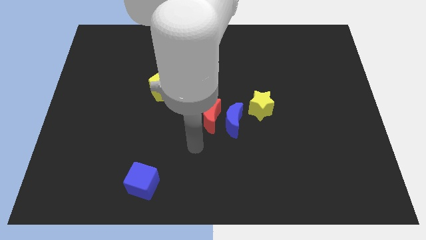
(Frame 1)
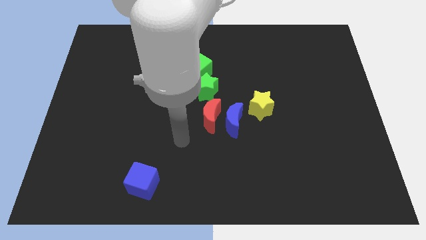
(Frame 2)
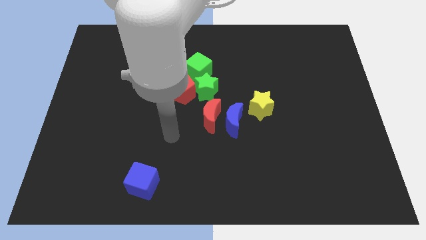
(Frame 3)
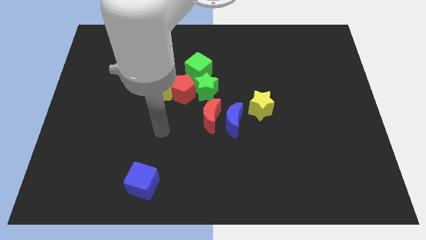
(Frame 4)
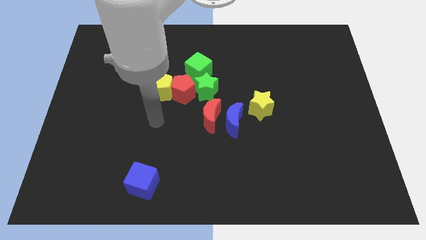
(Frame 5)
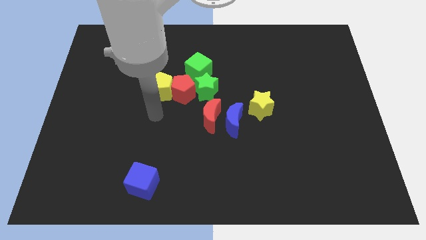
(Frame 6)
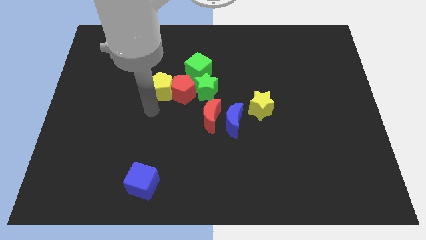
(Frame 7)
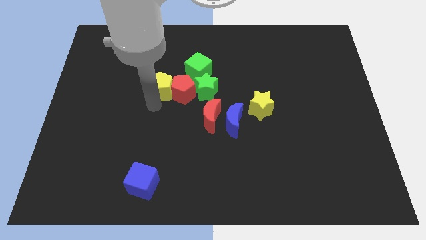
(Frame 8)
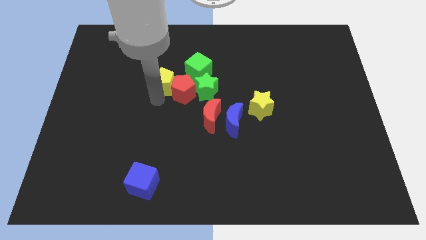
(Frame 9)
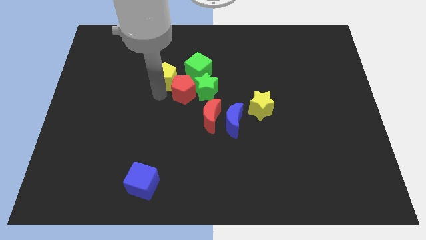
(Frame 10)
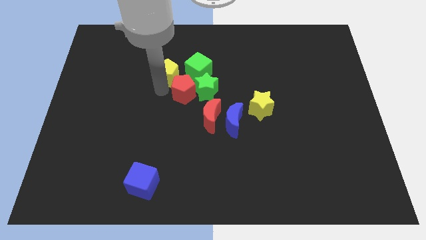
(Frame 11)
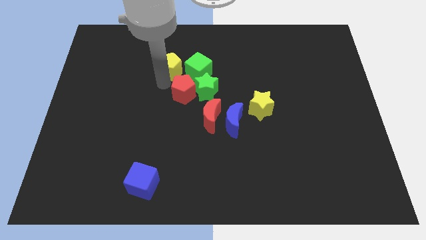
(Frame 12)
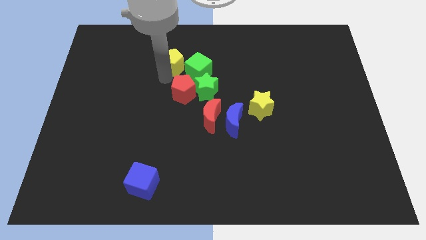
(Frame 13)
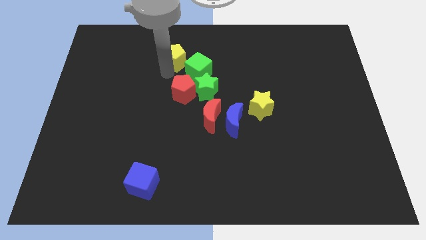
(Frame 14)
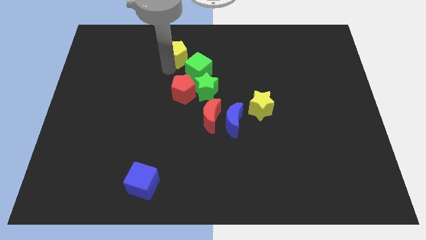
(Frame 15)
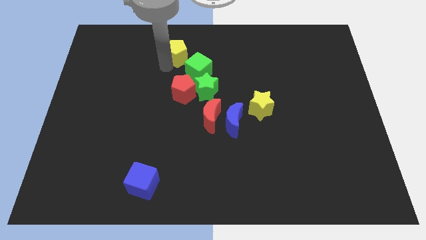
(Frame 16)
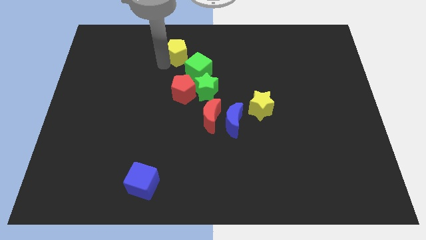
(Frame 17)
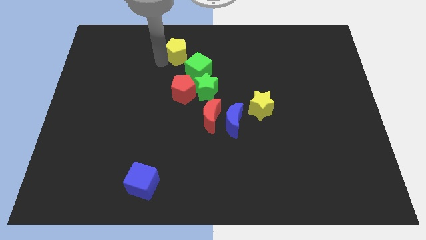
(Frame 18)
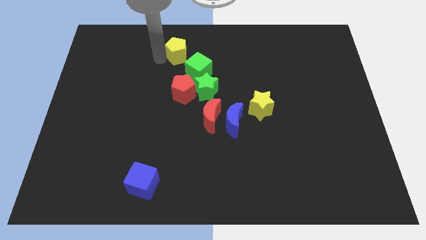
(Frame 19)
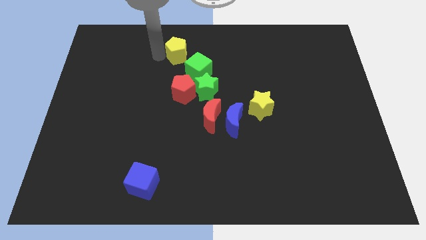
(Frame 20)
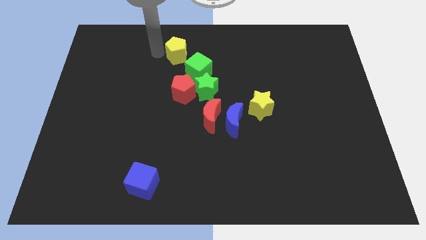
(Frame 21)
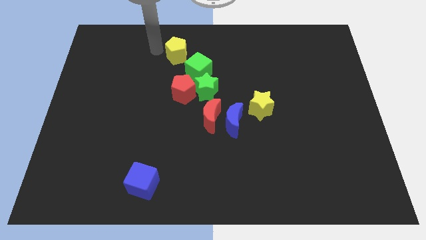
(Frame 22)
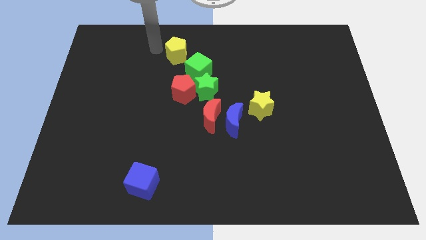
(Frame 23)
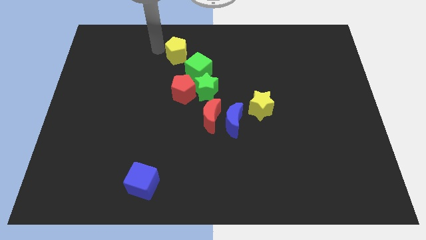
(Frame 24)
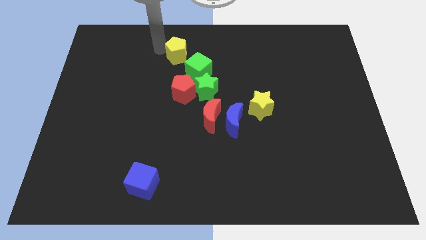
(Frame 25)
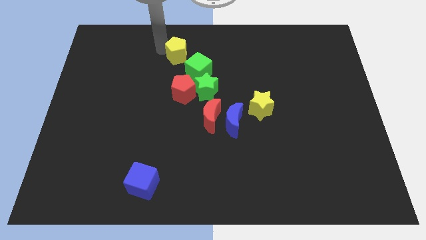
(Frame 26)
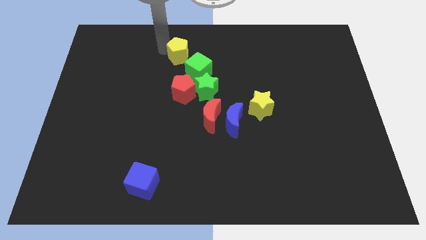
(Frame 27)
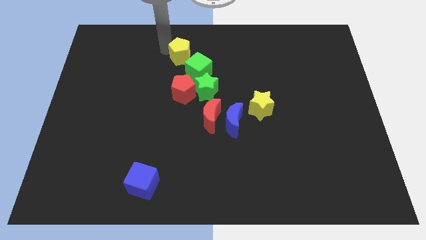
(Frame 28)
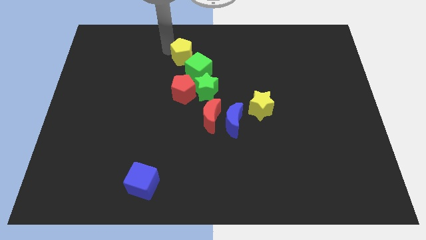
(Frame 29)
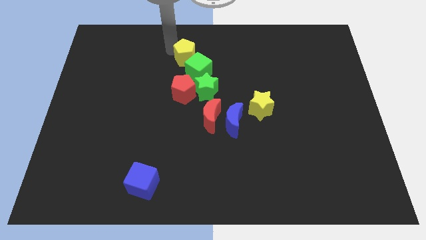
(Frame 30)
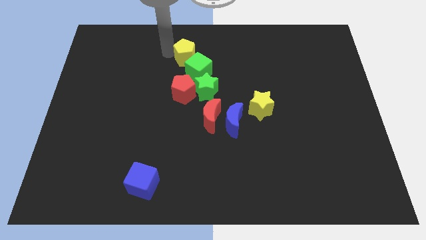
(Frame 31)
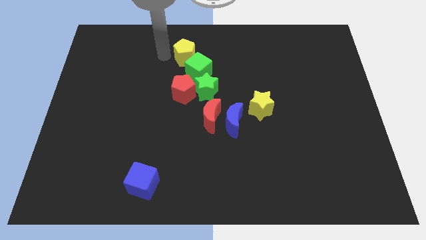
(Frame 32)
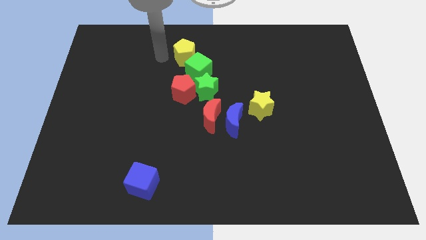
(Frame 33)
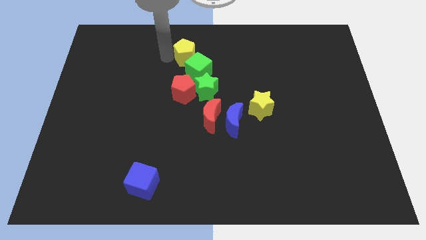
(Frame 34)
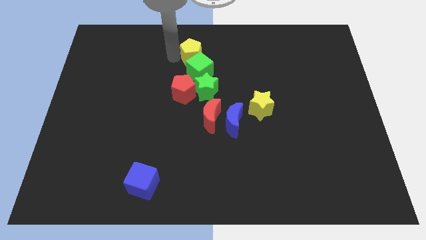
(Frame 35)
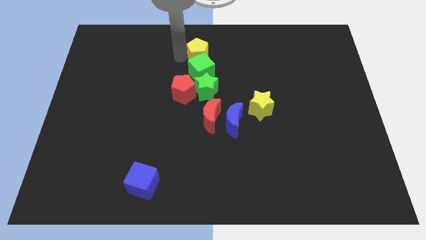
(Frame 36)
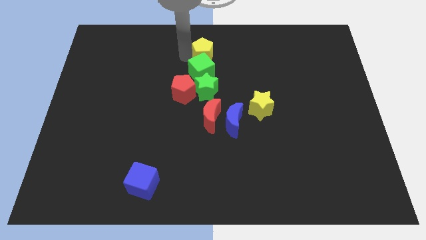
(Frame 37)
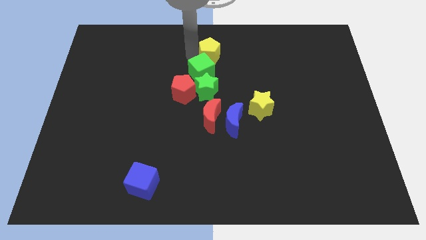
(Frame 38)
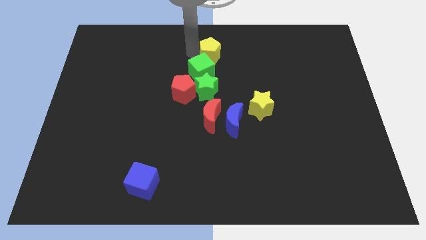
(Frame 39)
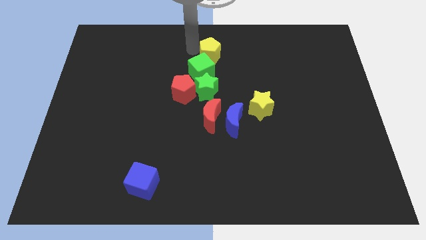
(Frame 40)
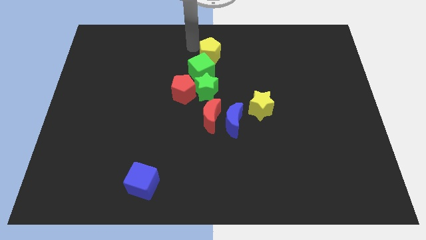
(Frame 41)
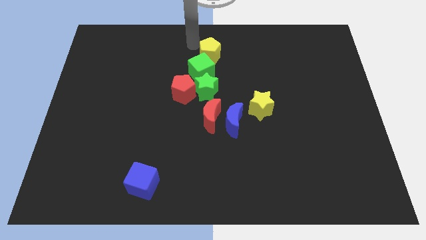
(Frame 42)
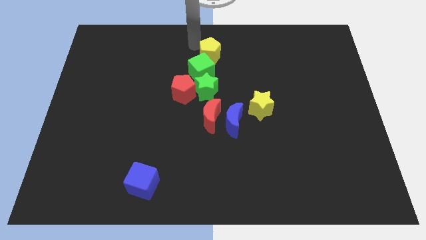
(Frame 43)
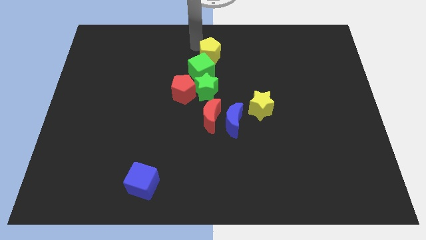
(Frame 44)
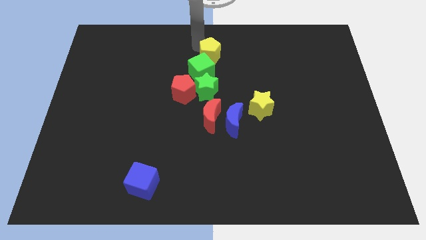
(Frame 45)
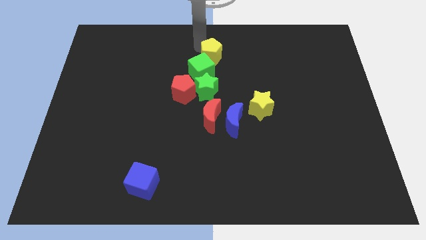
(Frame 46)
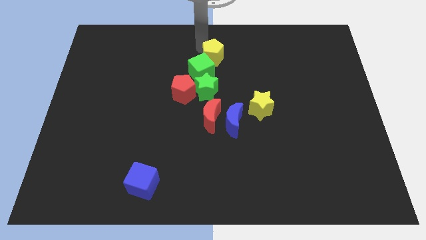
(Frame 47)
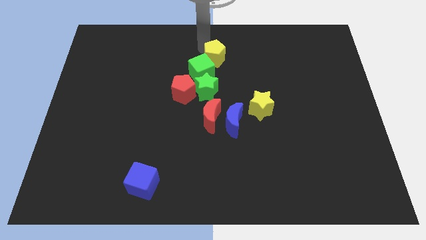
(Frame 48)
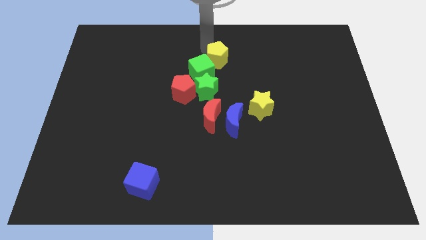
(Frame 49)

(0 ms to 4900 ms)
move the yellow pentagon right a little

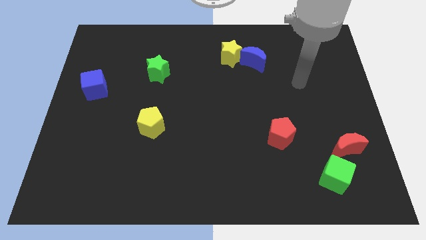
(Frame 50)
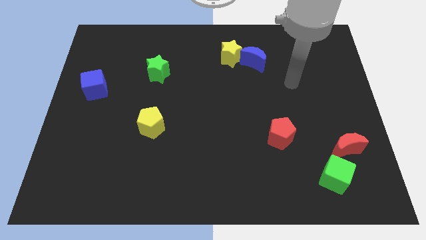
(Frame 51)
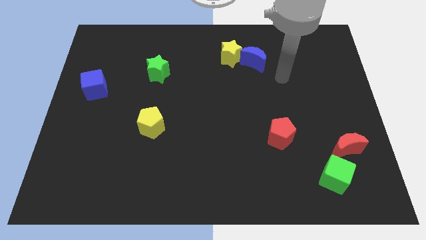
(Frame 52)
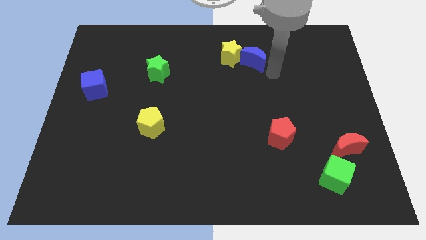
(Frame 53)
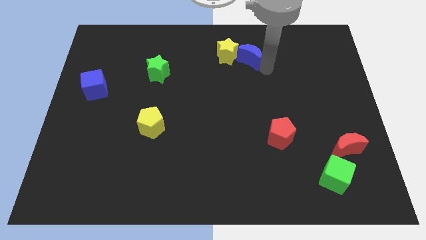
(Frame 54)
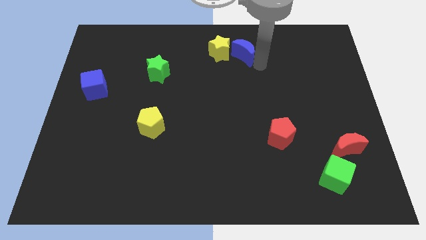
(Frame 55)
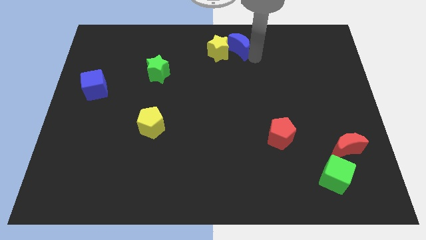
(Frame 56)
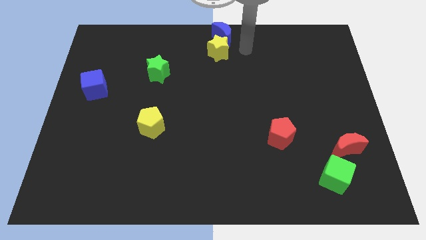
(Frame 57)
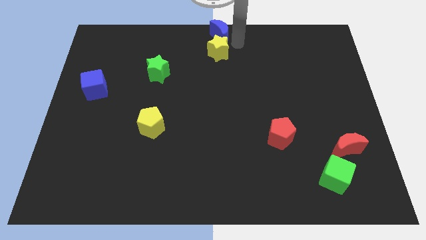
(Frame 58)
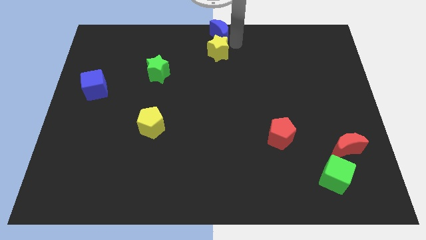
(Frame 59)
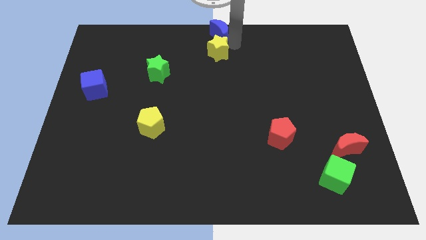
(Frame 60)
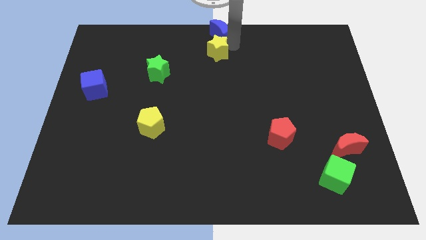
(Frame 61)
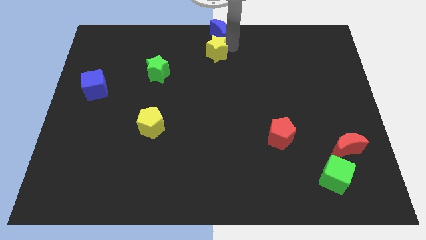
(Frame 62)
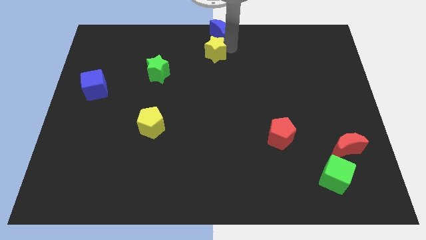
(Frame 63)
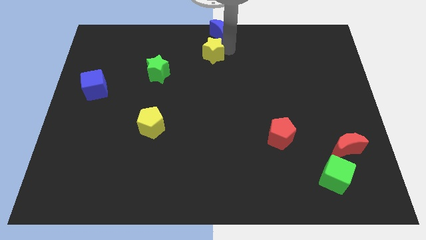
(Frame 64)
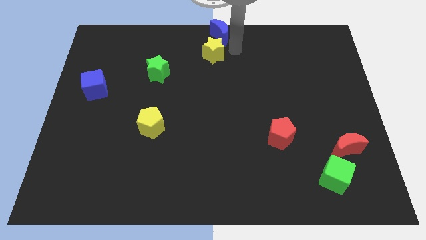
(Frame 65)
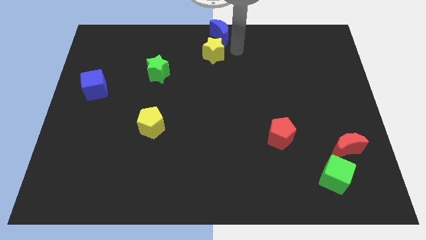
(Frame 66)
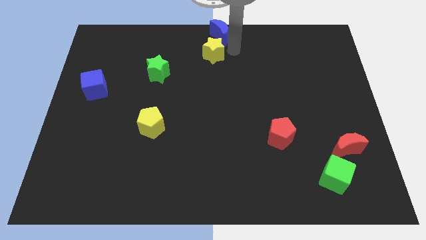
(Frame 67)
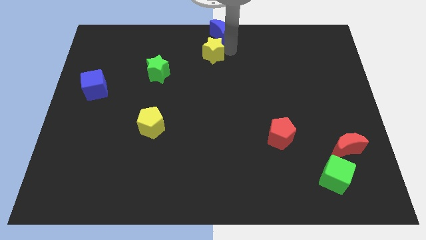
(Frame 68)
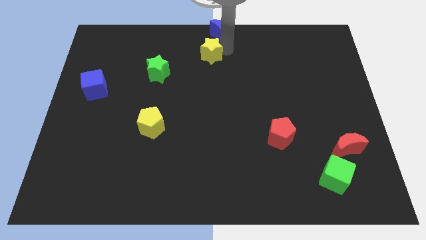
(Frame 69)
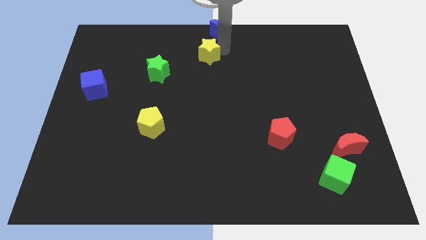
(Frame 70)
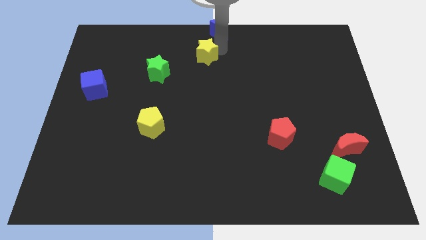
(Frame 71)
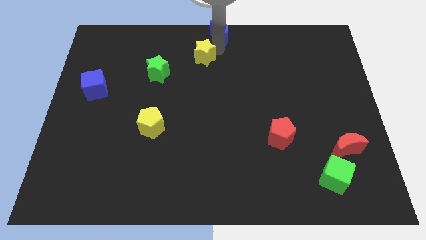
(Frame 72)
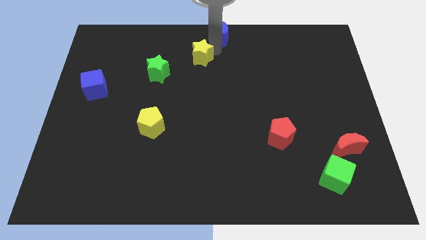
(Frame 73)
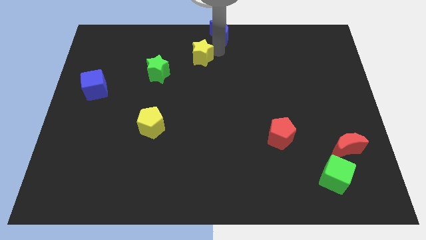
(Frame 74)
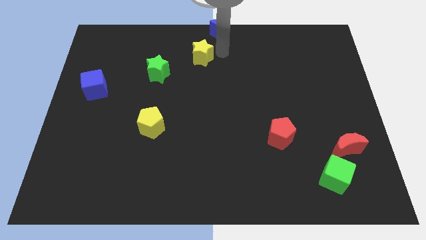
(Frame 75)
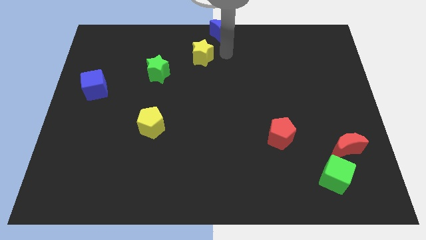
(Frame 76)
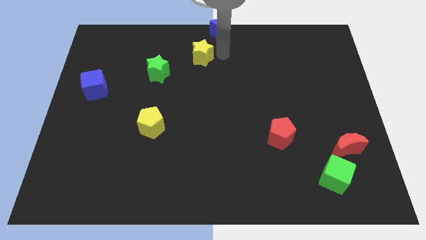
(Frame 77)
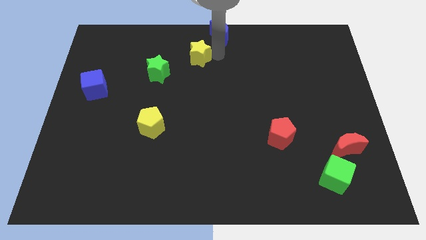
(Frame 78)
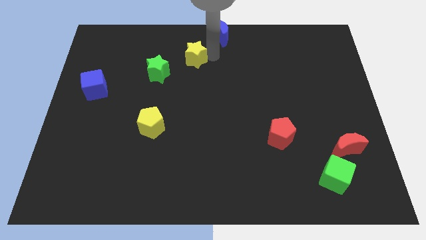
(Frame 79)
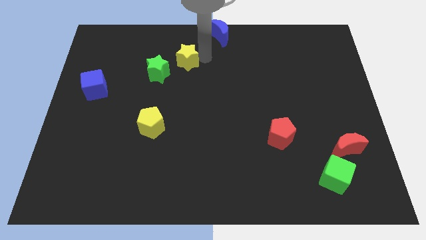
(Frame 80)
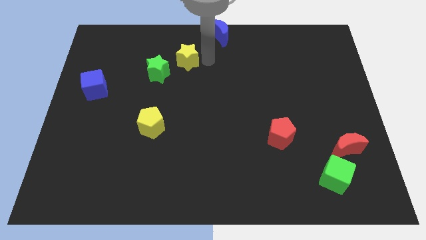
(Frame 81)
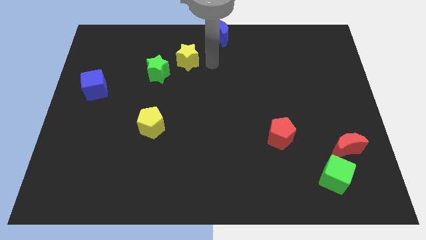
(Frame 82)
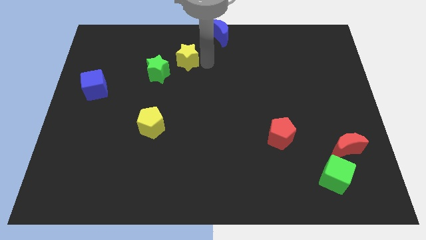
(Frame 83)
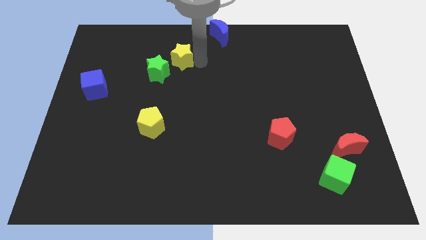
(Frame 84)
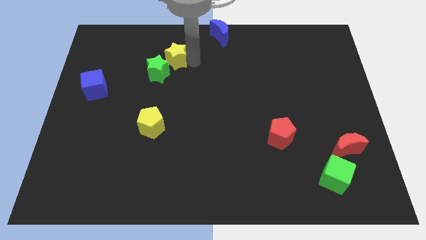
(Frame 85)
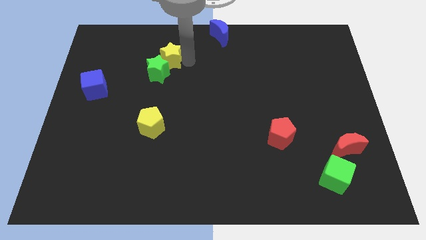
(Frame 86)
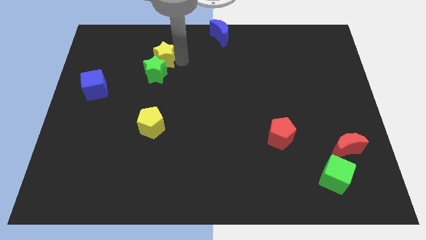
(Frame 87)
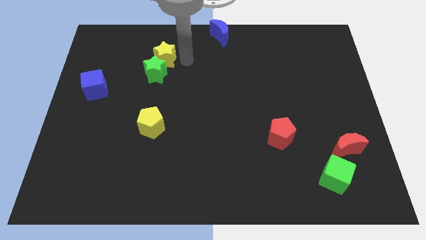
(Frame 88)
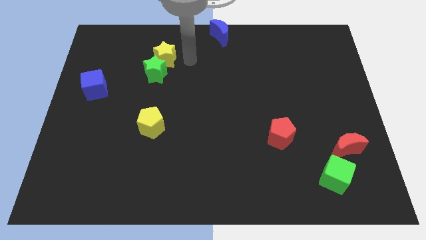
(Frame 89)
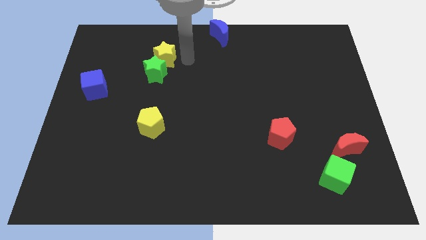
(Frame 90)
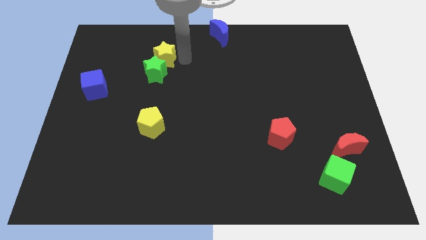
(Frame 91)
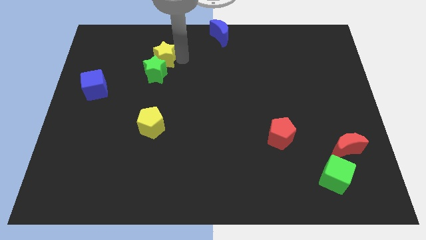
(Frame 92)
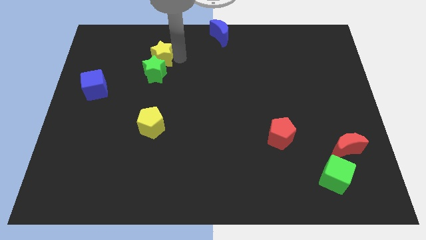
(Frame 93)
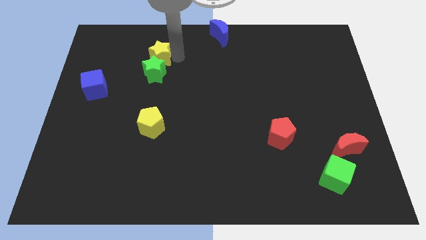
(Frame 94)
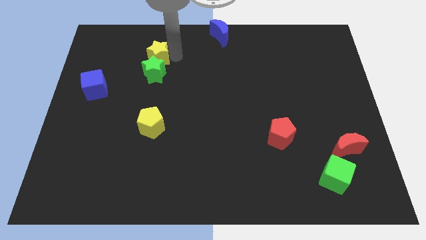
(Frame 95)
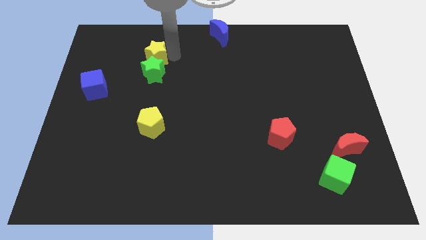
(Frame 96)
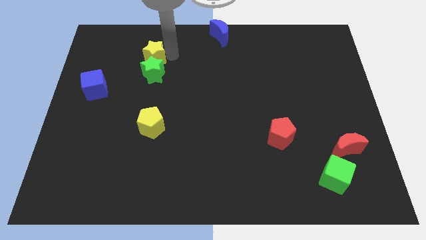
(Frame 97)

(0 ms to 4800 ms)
move the yellow star to the left
